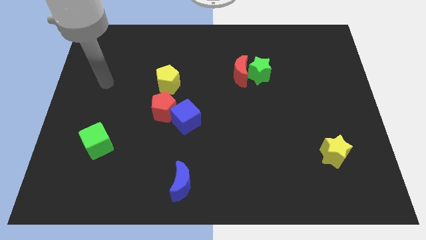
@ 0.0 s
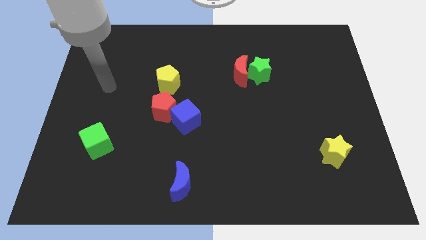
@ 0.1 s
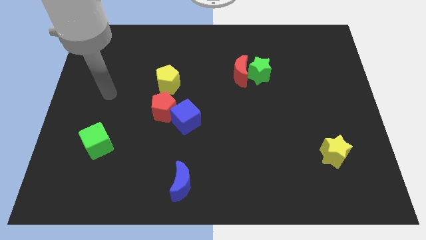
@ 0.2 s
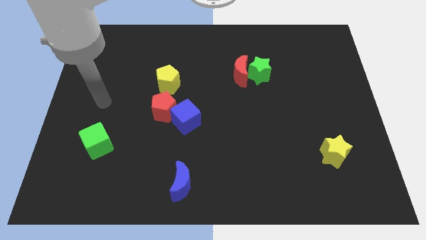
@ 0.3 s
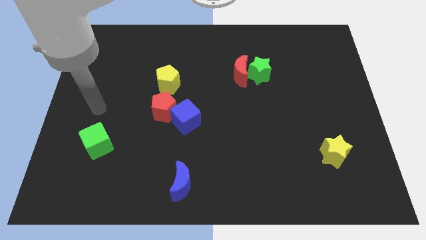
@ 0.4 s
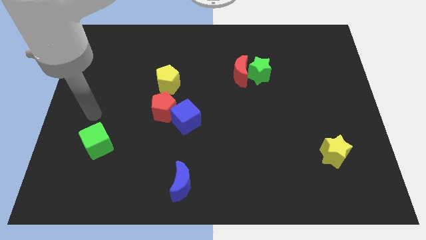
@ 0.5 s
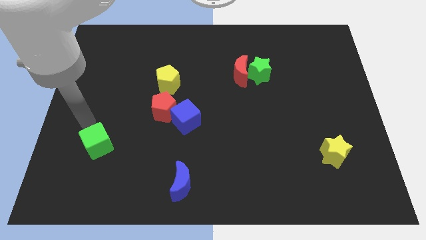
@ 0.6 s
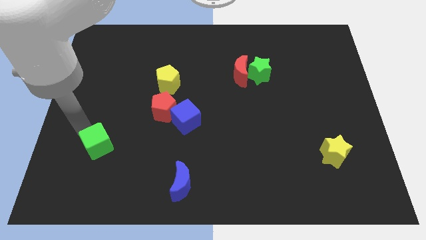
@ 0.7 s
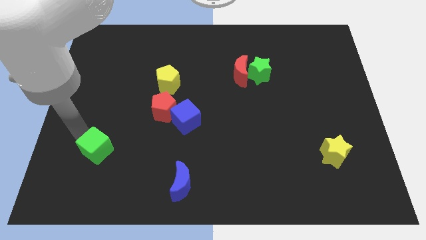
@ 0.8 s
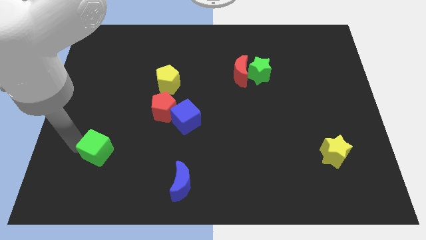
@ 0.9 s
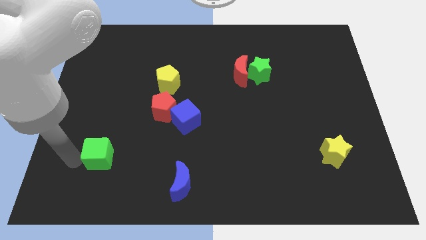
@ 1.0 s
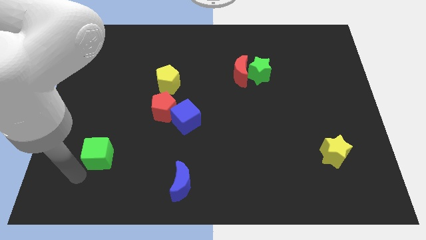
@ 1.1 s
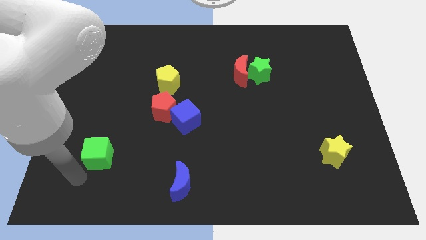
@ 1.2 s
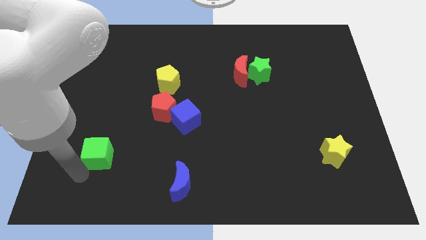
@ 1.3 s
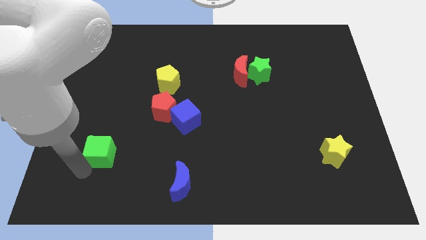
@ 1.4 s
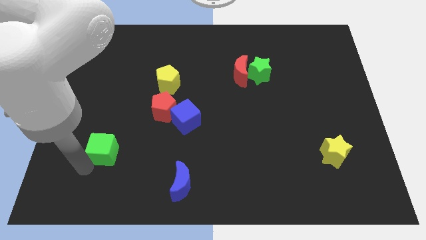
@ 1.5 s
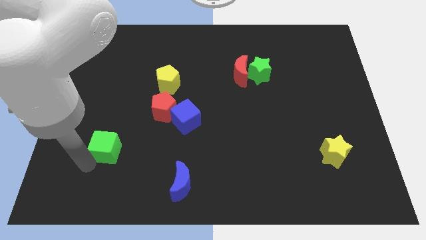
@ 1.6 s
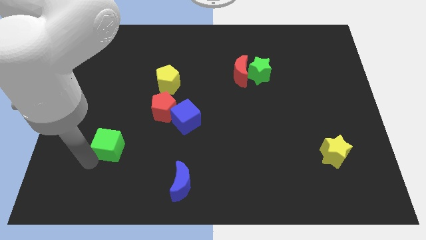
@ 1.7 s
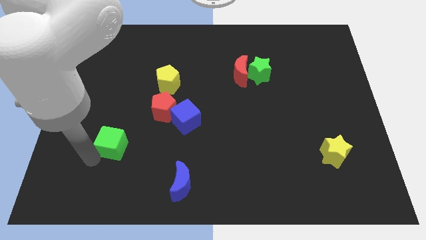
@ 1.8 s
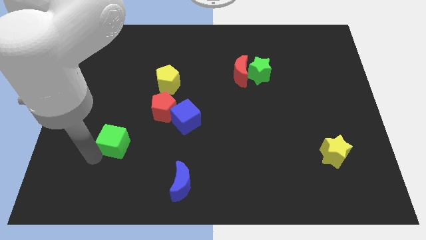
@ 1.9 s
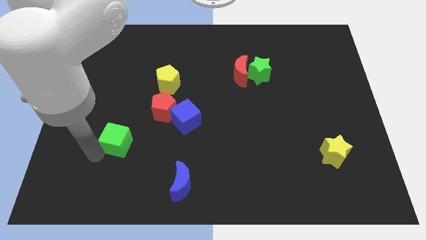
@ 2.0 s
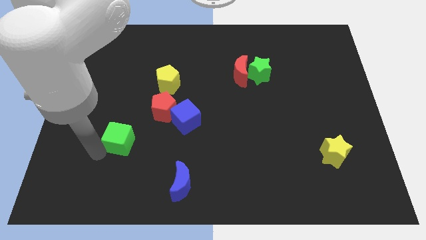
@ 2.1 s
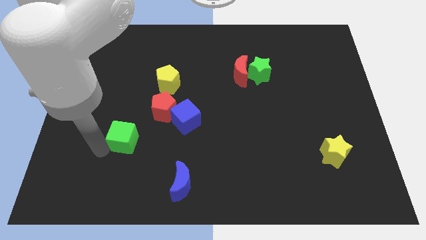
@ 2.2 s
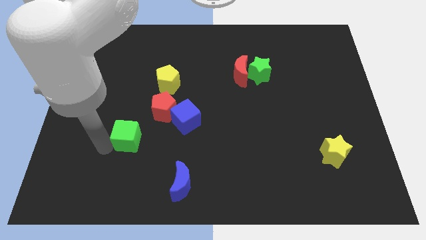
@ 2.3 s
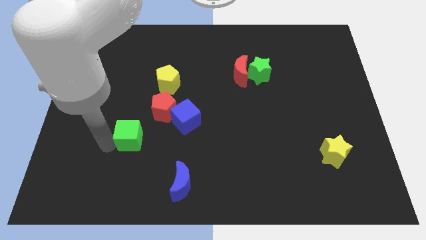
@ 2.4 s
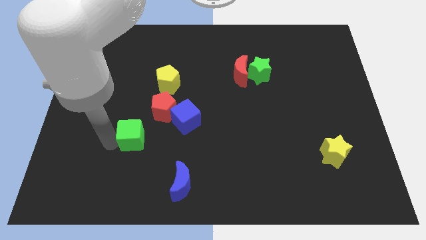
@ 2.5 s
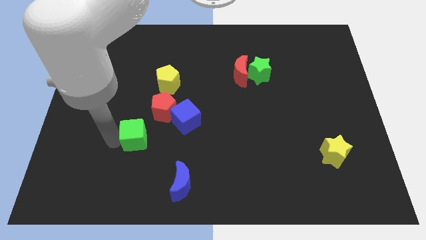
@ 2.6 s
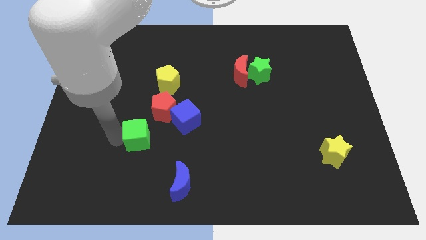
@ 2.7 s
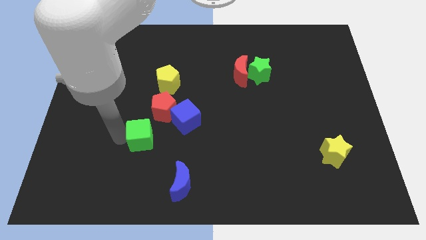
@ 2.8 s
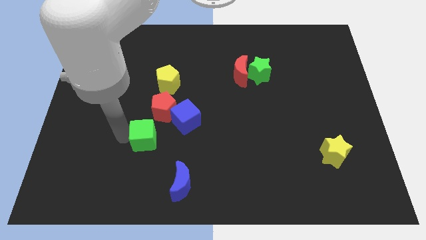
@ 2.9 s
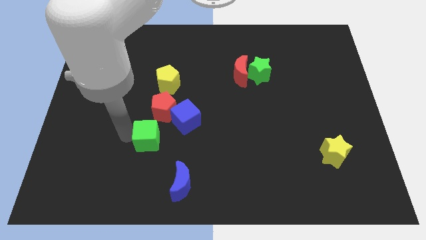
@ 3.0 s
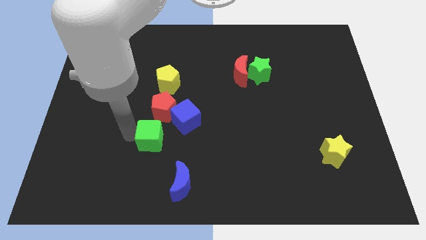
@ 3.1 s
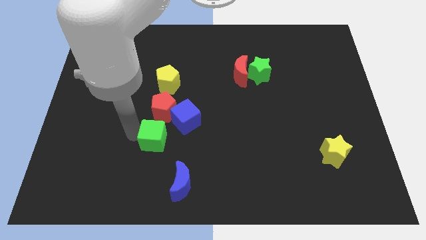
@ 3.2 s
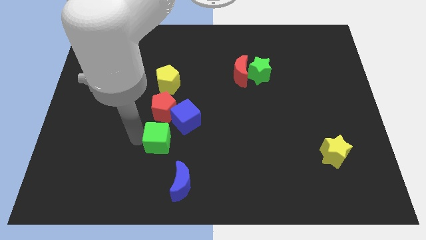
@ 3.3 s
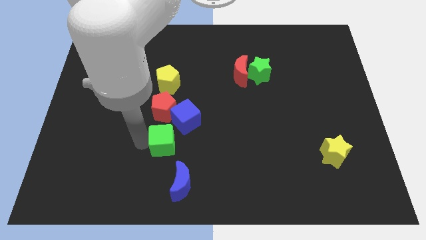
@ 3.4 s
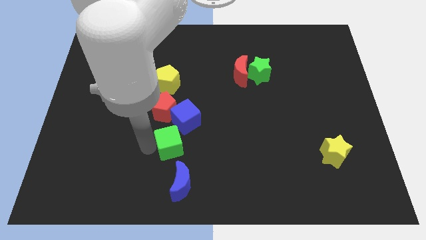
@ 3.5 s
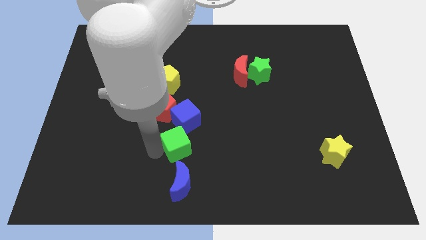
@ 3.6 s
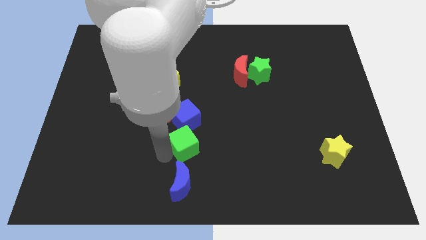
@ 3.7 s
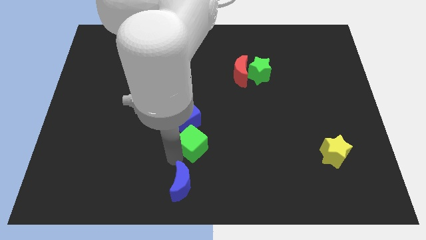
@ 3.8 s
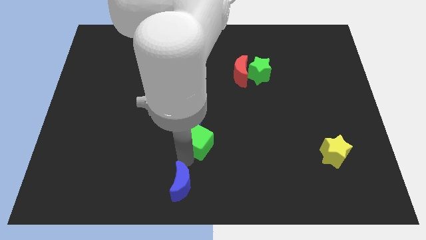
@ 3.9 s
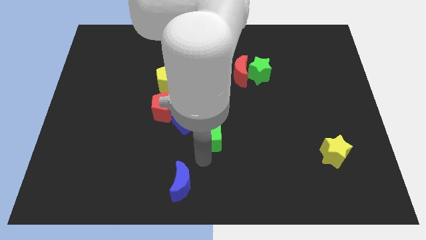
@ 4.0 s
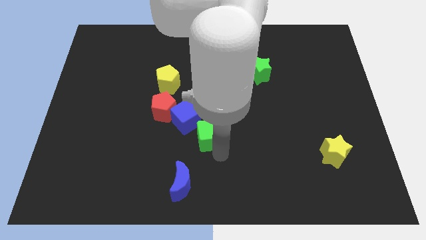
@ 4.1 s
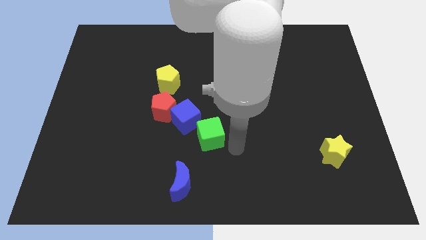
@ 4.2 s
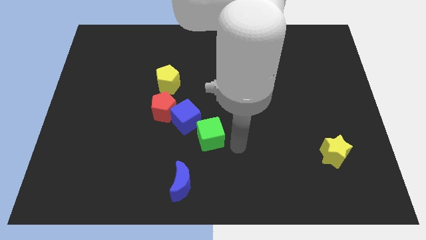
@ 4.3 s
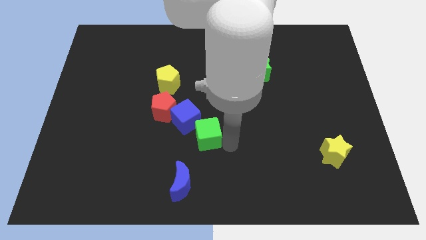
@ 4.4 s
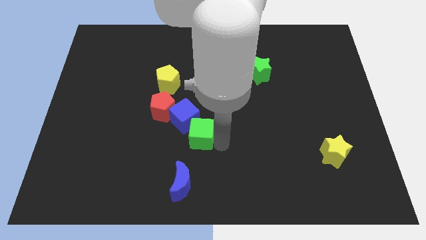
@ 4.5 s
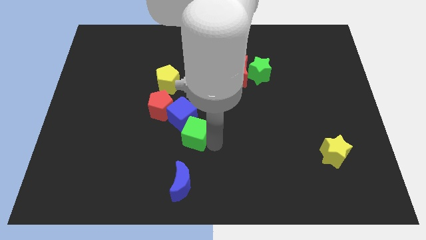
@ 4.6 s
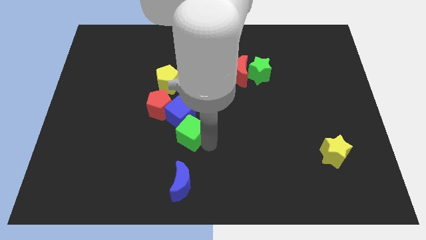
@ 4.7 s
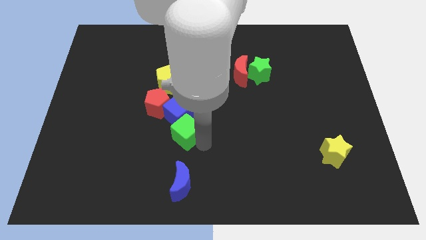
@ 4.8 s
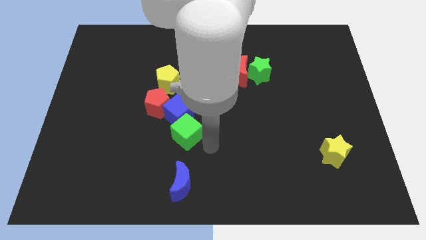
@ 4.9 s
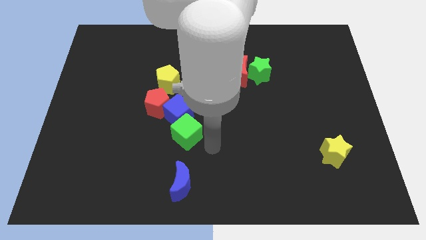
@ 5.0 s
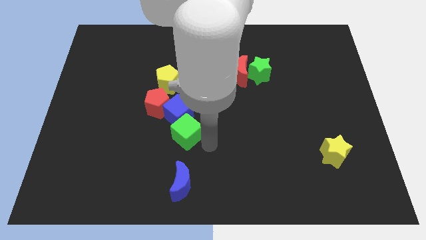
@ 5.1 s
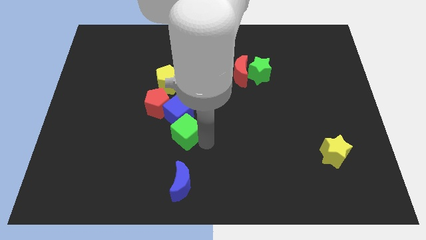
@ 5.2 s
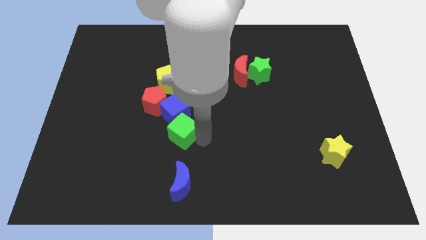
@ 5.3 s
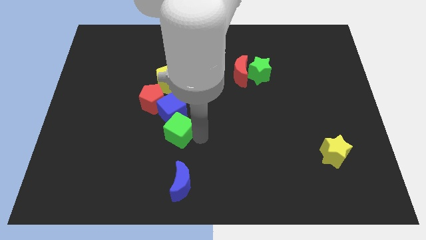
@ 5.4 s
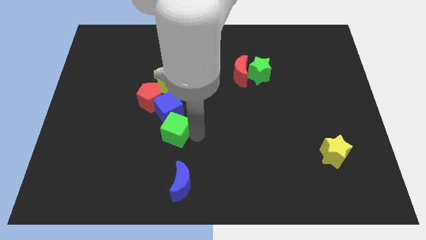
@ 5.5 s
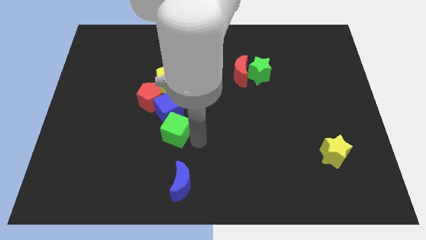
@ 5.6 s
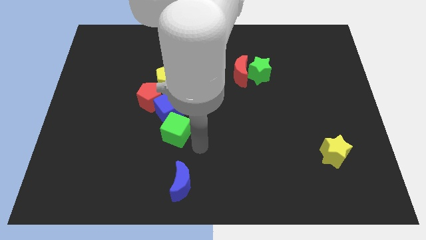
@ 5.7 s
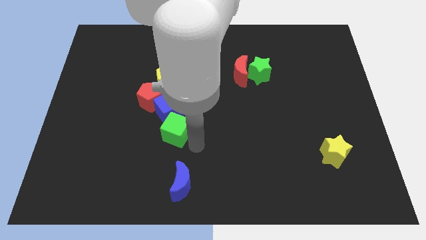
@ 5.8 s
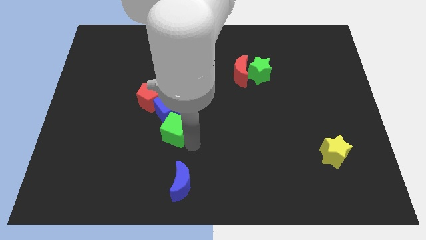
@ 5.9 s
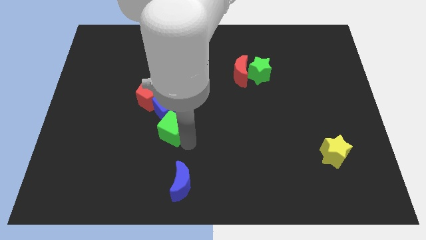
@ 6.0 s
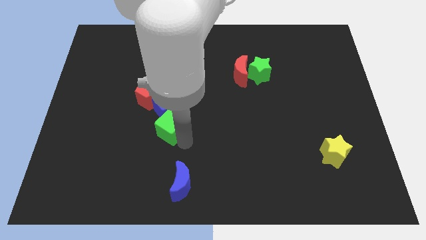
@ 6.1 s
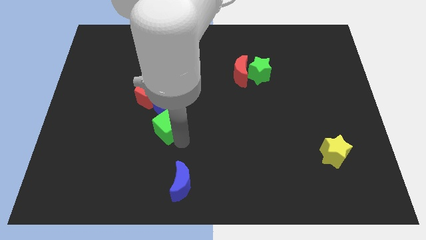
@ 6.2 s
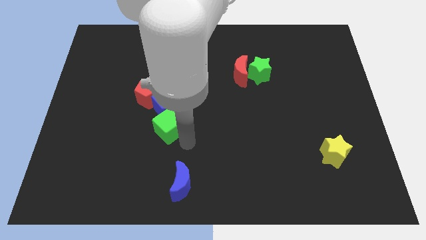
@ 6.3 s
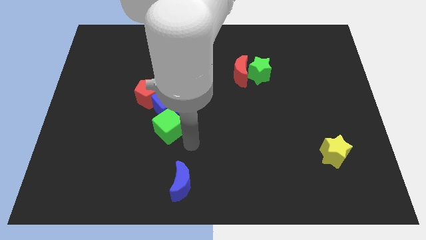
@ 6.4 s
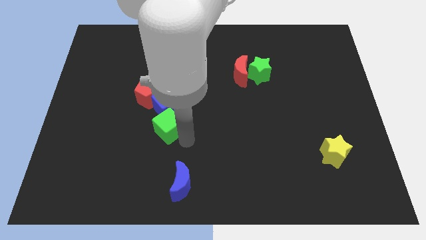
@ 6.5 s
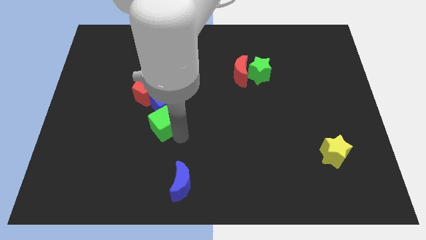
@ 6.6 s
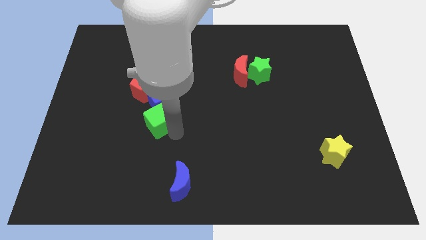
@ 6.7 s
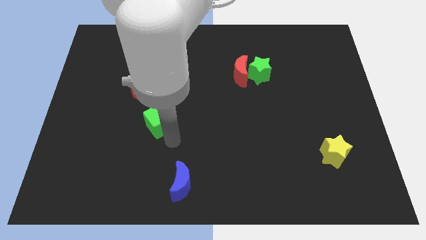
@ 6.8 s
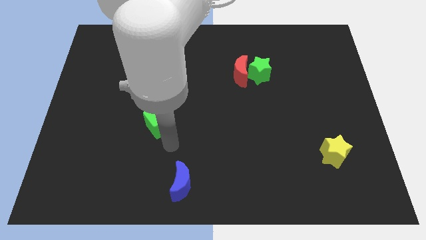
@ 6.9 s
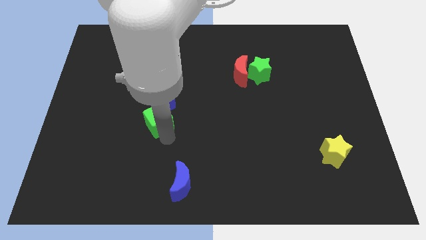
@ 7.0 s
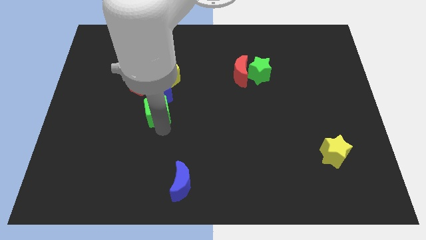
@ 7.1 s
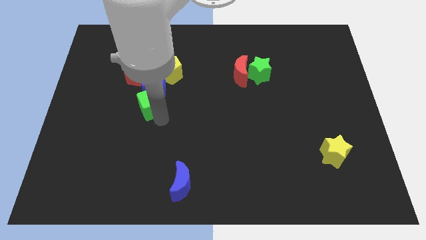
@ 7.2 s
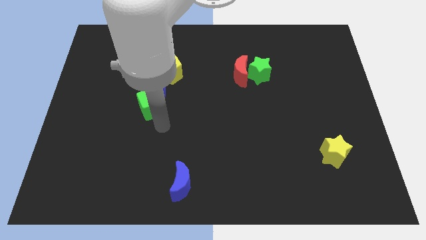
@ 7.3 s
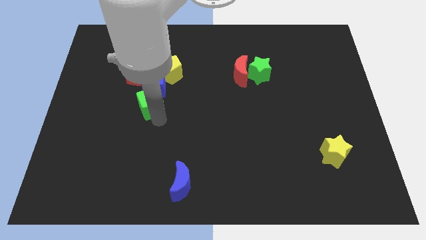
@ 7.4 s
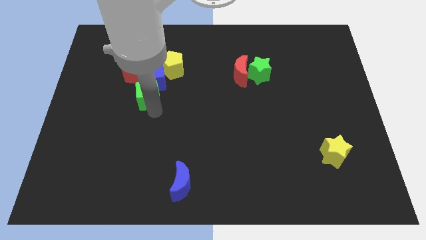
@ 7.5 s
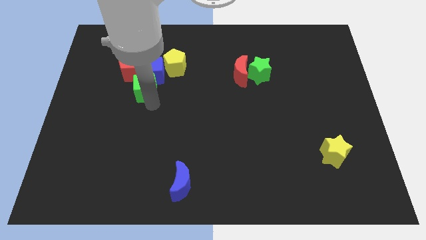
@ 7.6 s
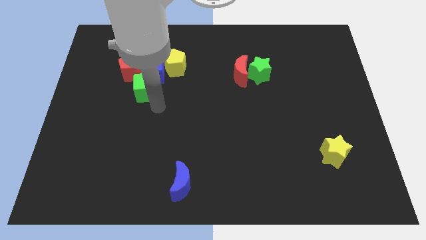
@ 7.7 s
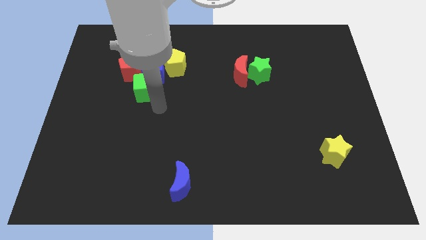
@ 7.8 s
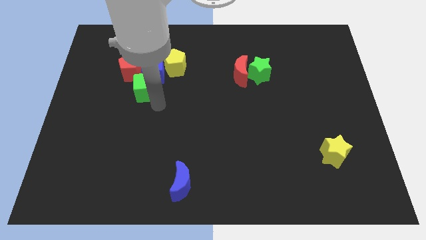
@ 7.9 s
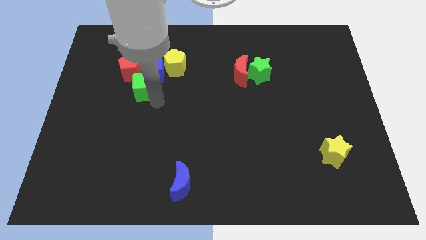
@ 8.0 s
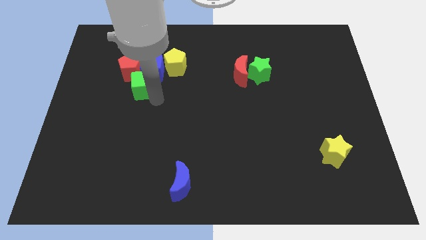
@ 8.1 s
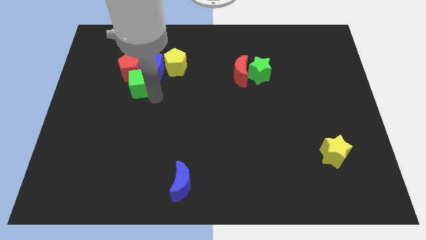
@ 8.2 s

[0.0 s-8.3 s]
move the green cube close to the red pentagon
